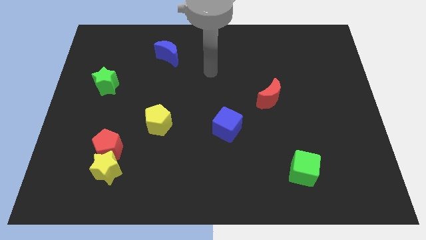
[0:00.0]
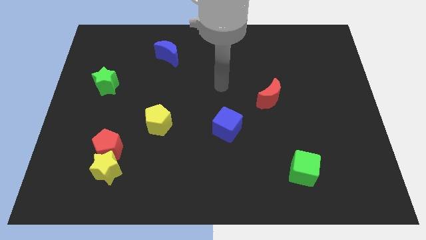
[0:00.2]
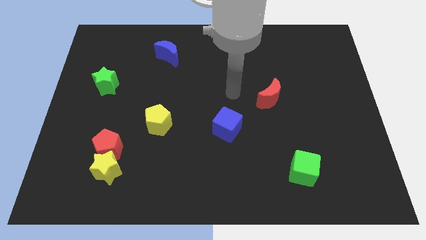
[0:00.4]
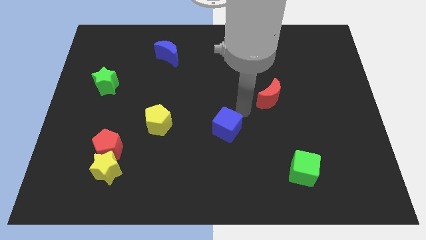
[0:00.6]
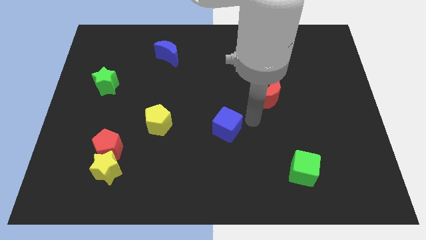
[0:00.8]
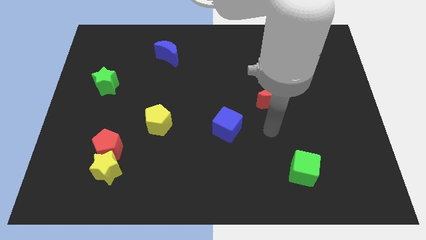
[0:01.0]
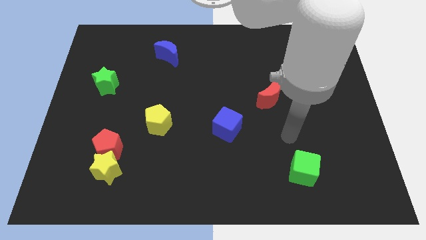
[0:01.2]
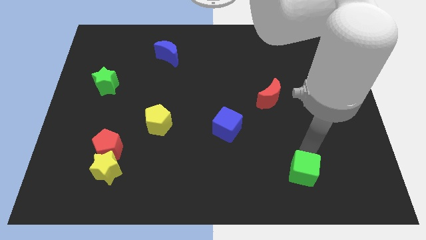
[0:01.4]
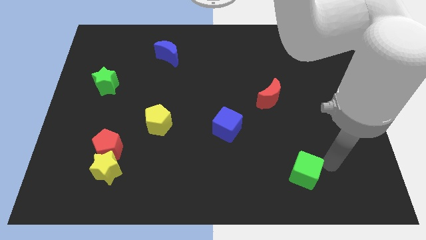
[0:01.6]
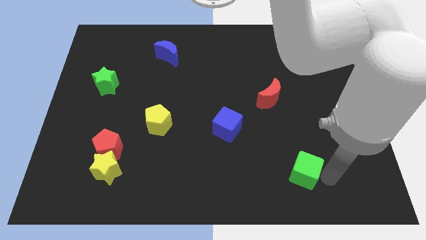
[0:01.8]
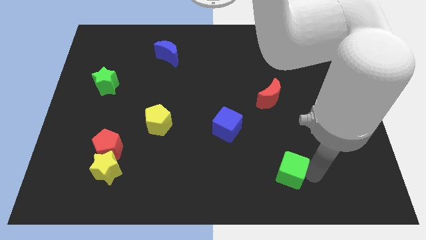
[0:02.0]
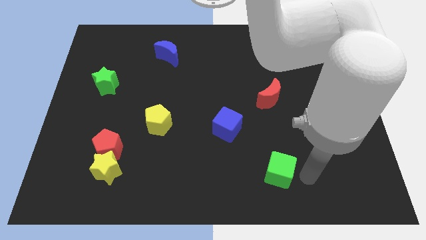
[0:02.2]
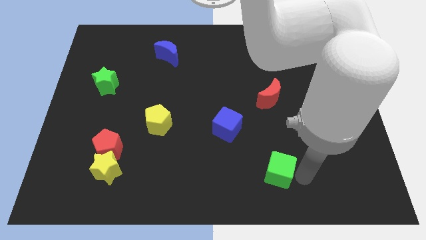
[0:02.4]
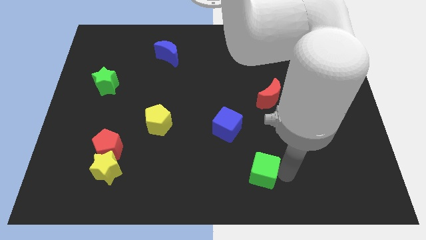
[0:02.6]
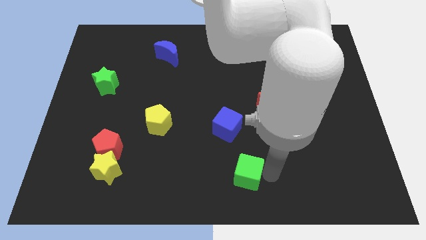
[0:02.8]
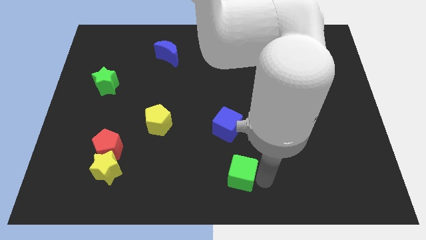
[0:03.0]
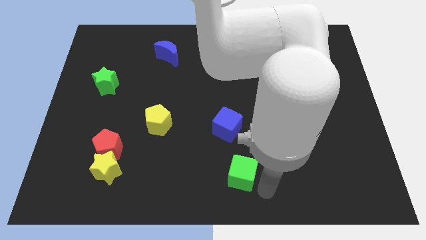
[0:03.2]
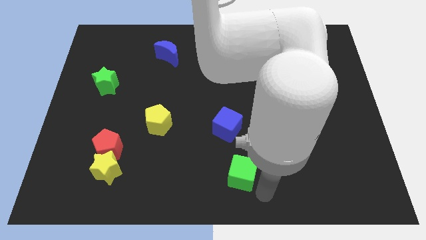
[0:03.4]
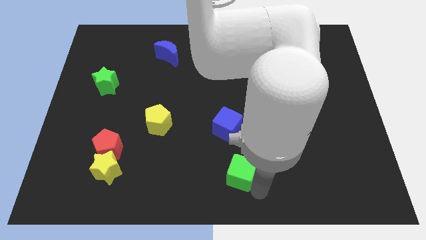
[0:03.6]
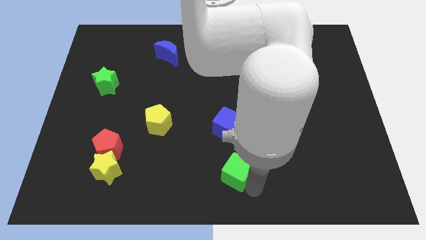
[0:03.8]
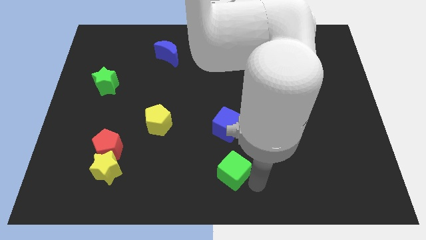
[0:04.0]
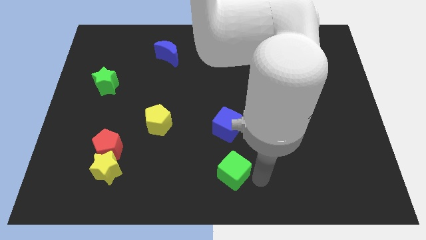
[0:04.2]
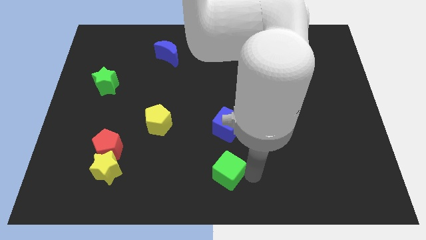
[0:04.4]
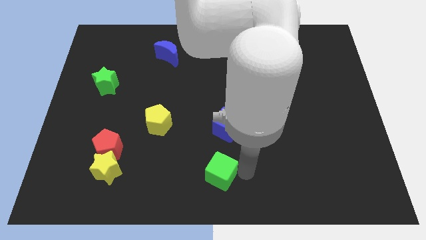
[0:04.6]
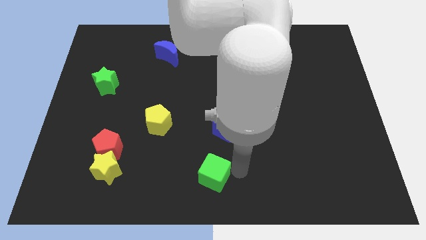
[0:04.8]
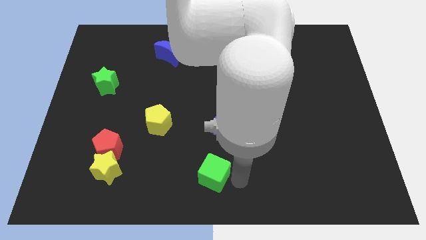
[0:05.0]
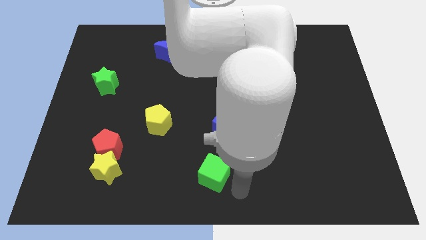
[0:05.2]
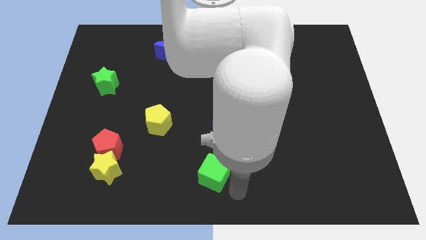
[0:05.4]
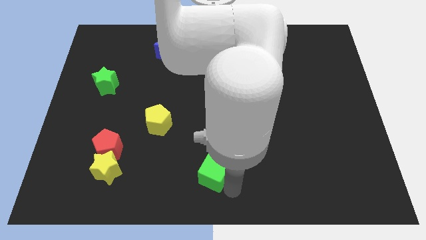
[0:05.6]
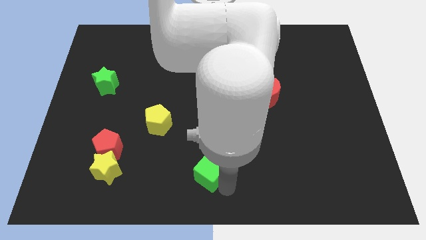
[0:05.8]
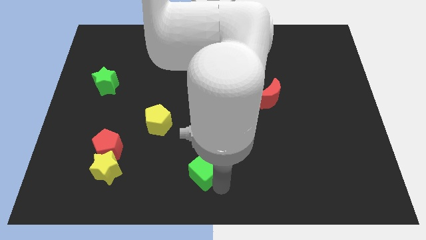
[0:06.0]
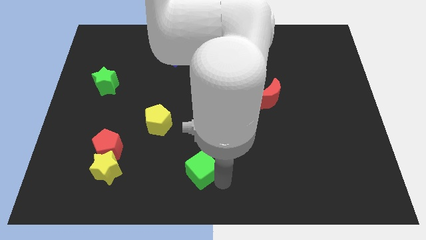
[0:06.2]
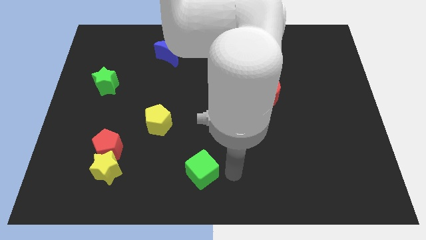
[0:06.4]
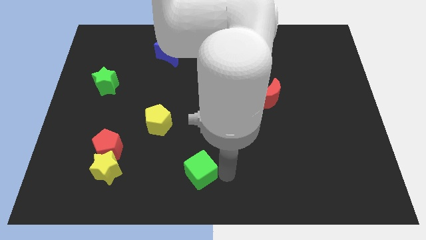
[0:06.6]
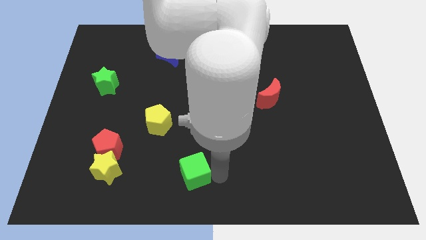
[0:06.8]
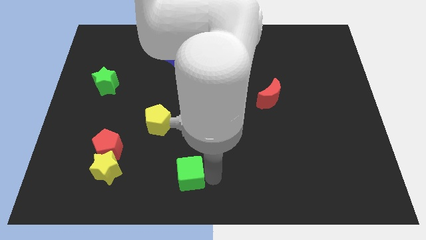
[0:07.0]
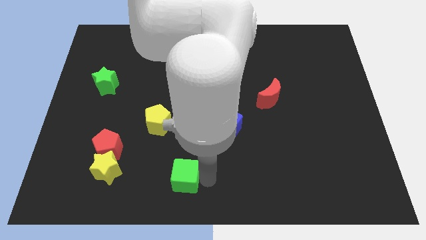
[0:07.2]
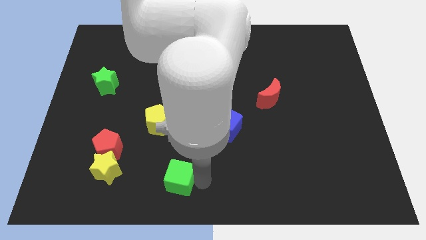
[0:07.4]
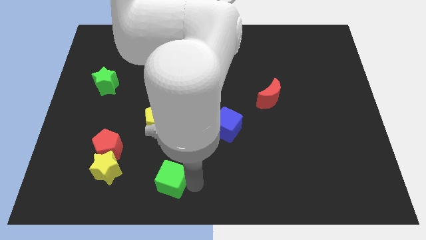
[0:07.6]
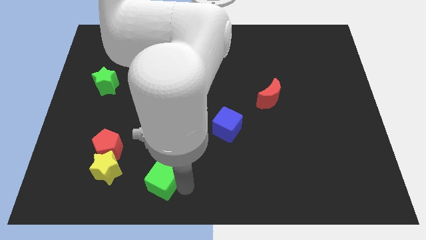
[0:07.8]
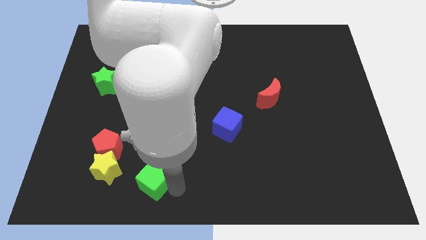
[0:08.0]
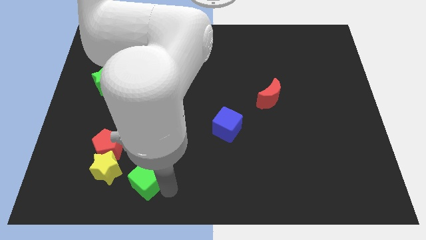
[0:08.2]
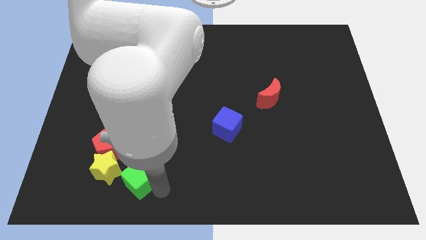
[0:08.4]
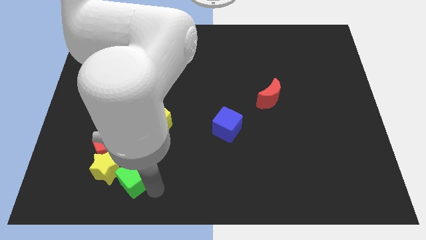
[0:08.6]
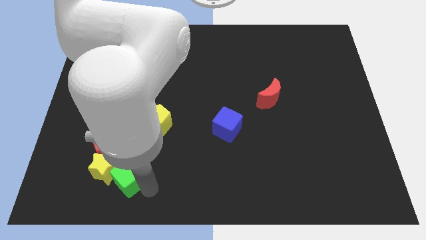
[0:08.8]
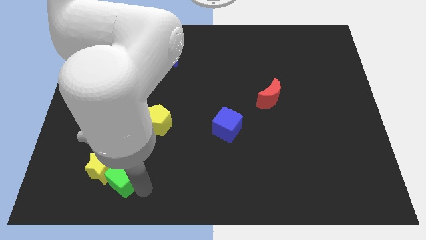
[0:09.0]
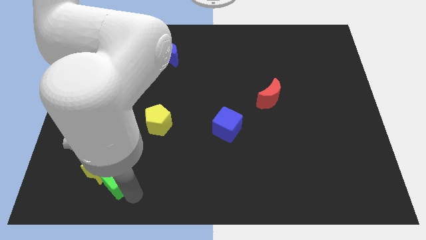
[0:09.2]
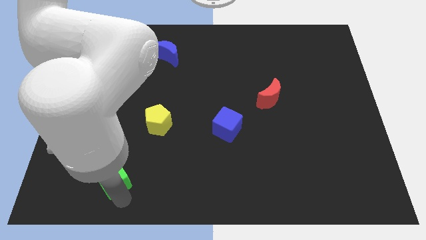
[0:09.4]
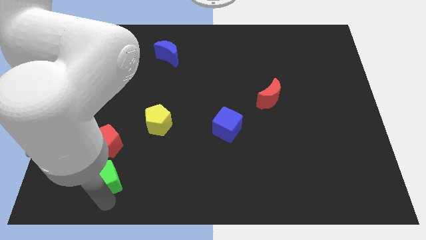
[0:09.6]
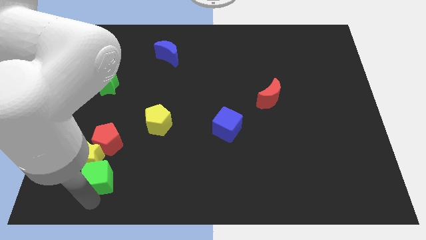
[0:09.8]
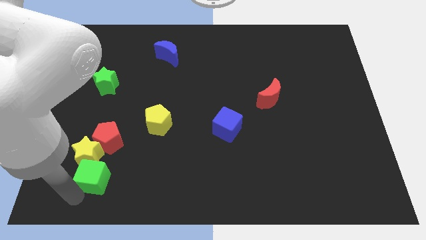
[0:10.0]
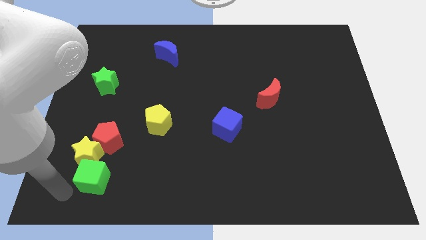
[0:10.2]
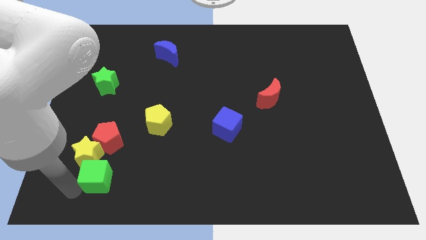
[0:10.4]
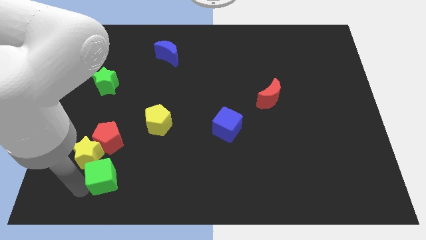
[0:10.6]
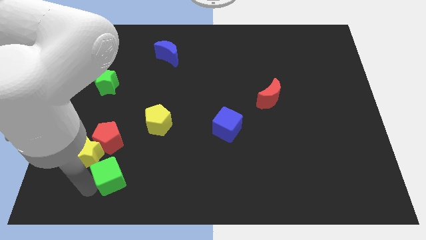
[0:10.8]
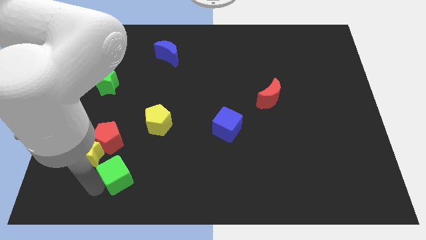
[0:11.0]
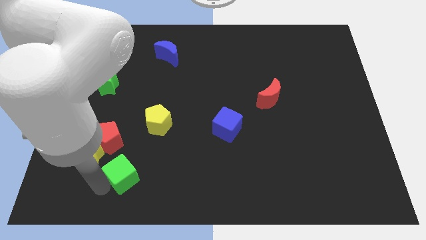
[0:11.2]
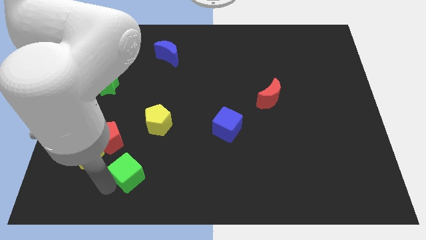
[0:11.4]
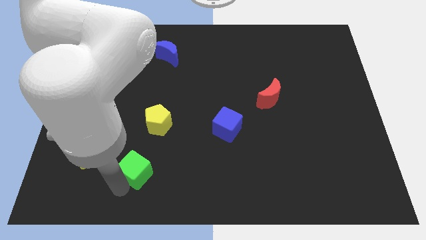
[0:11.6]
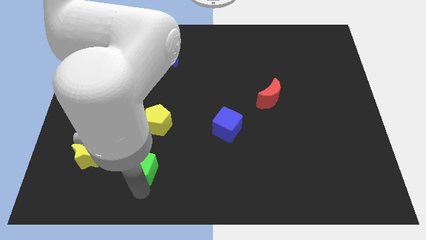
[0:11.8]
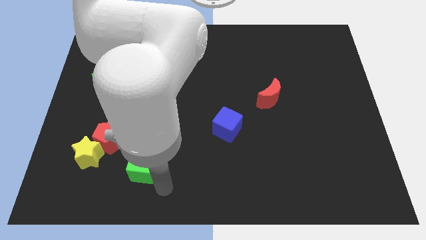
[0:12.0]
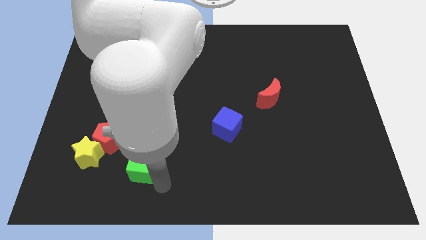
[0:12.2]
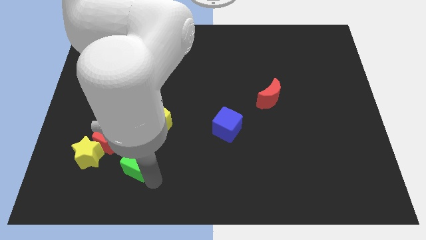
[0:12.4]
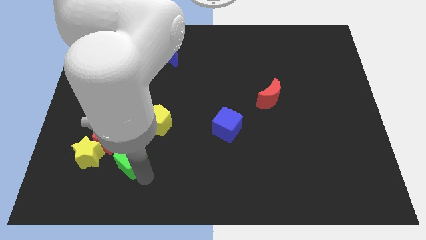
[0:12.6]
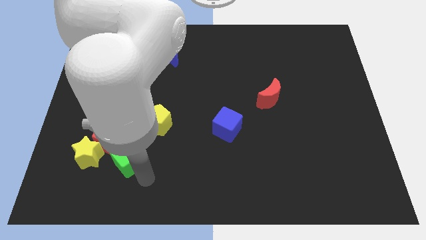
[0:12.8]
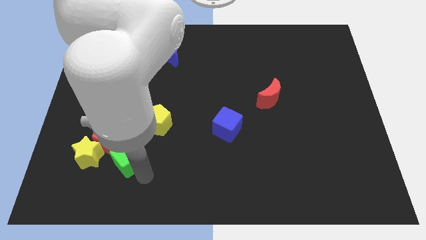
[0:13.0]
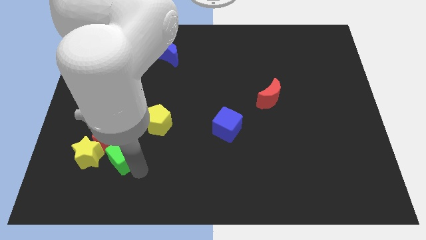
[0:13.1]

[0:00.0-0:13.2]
slide the green cube next to the red pentagon

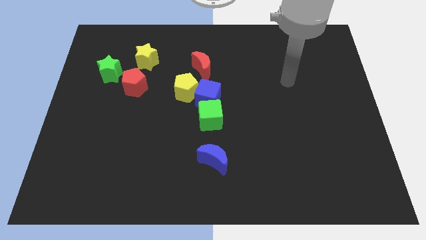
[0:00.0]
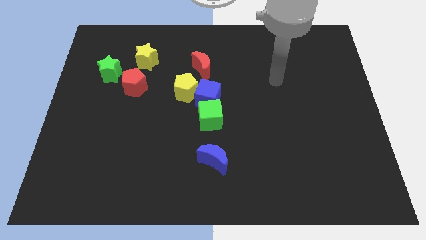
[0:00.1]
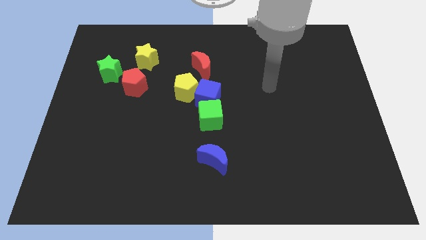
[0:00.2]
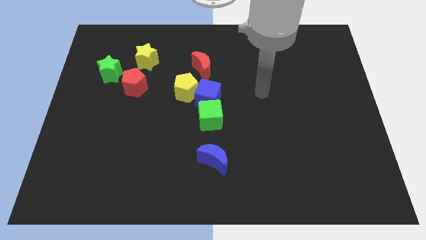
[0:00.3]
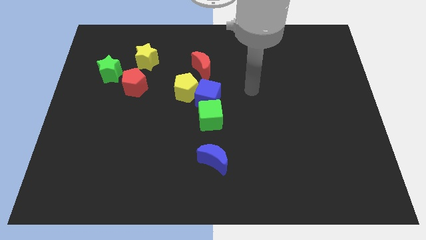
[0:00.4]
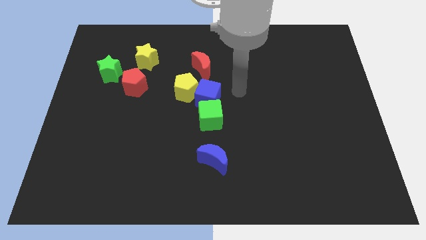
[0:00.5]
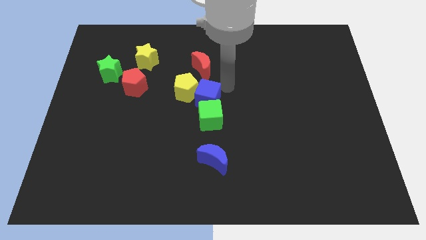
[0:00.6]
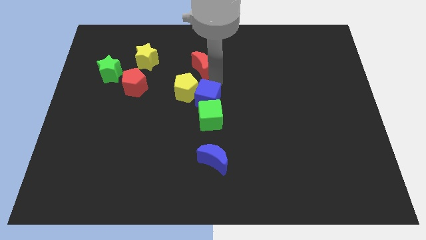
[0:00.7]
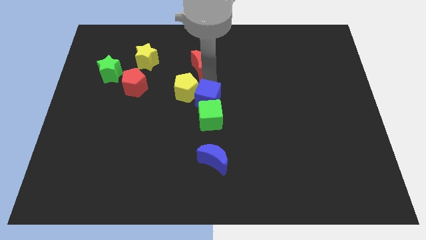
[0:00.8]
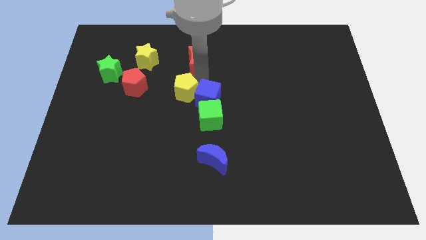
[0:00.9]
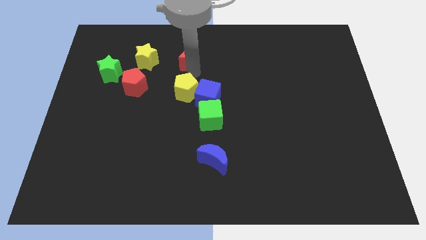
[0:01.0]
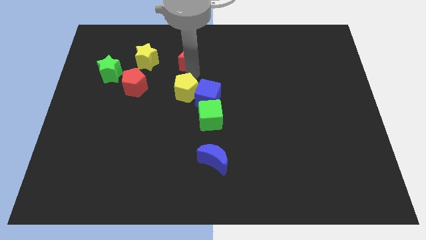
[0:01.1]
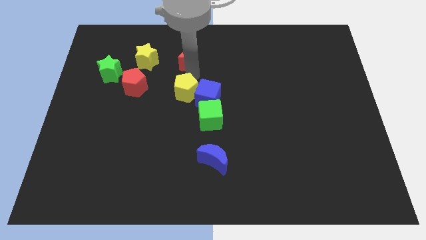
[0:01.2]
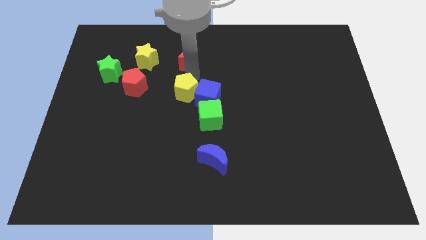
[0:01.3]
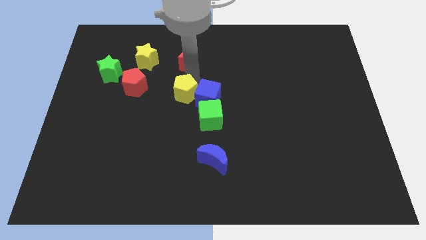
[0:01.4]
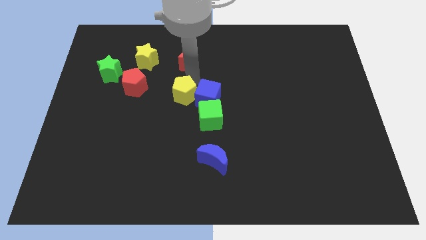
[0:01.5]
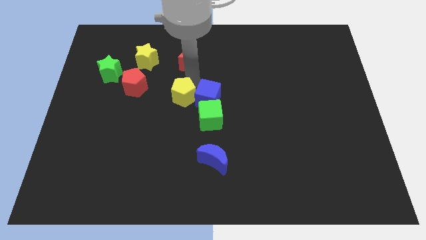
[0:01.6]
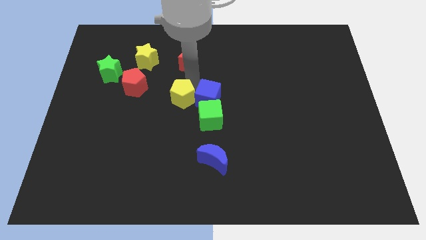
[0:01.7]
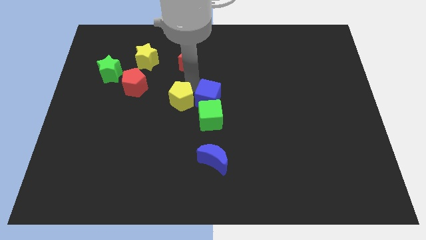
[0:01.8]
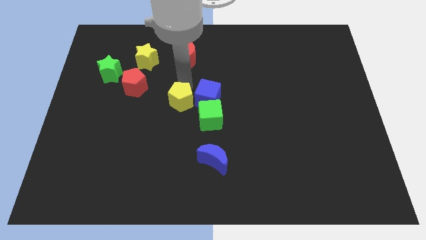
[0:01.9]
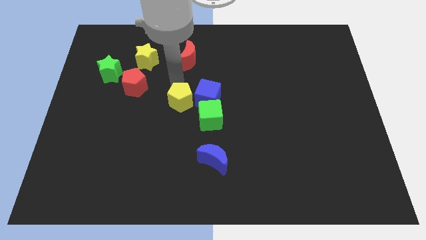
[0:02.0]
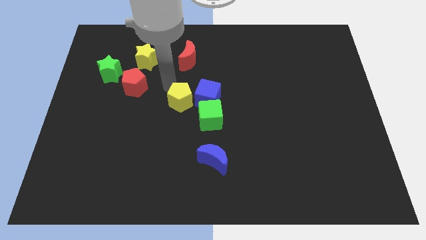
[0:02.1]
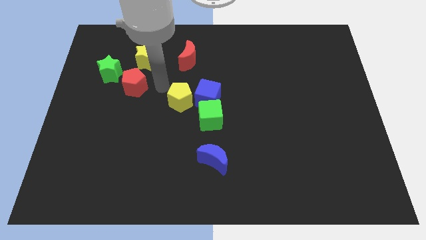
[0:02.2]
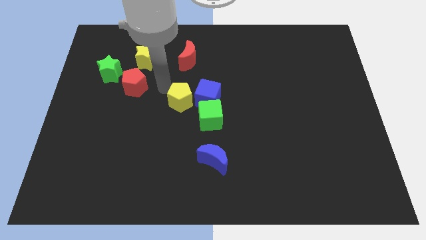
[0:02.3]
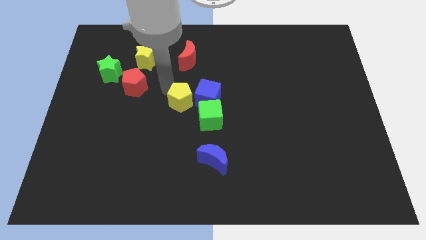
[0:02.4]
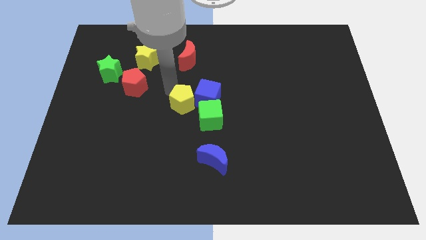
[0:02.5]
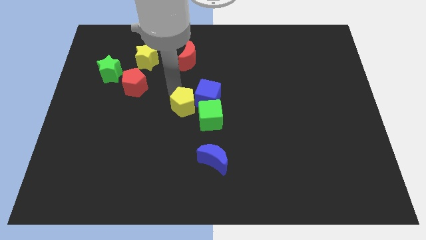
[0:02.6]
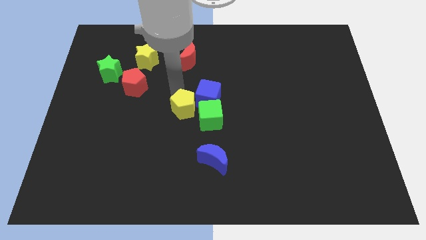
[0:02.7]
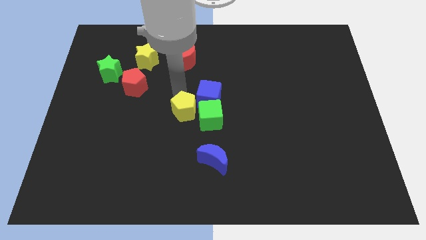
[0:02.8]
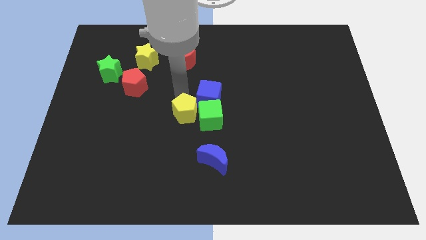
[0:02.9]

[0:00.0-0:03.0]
slide the yellow pentagon to the green cube
